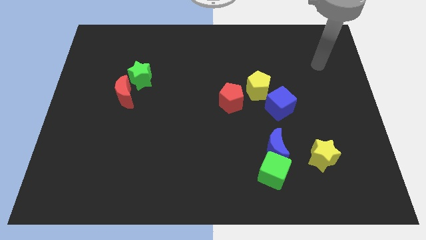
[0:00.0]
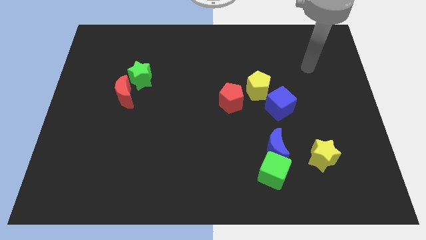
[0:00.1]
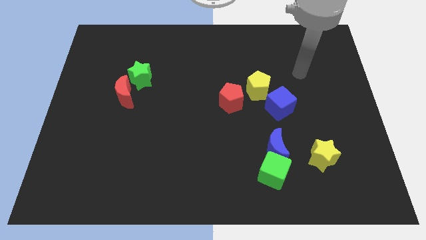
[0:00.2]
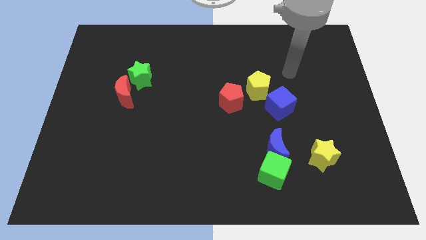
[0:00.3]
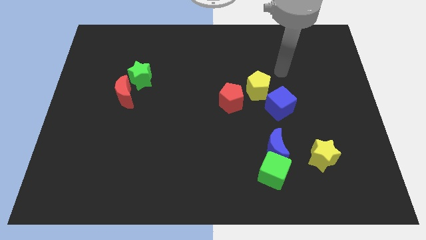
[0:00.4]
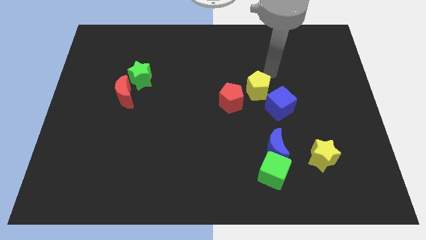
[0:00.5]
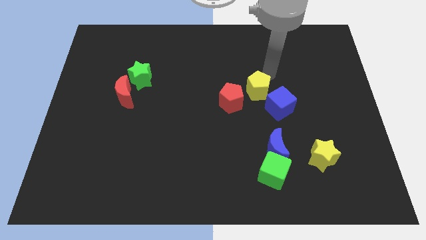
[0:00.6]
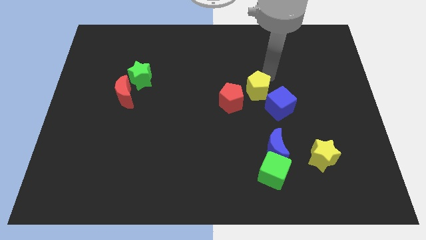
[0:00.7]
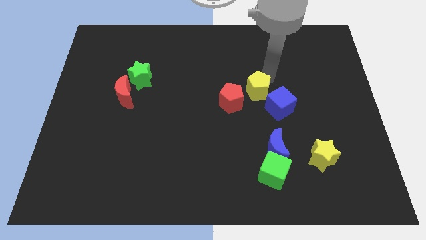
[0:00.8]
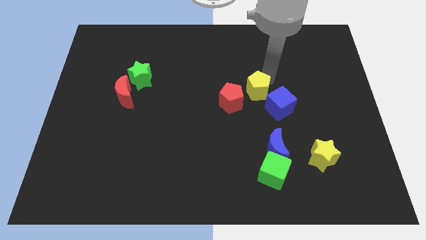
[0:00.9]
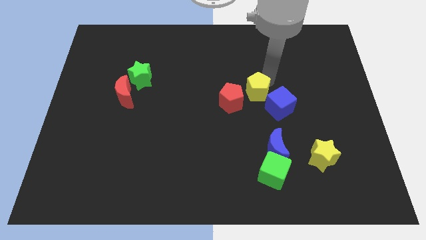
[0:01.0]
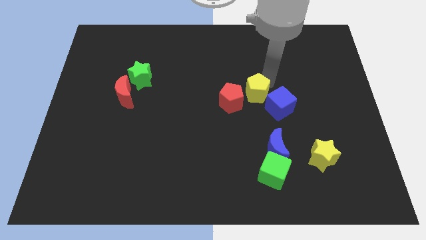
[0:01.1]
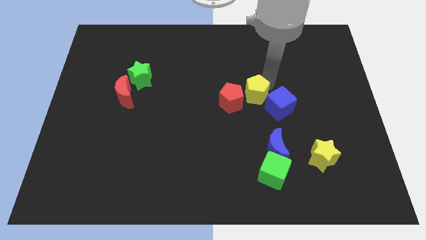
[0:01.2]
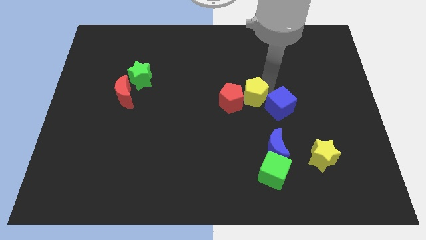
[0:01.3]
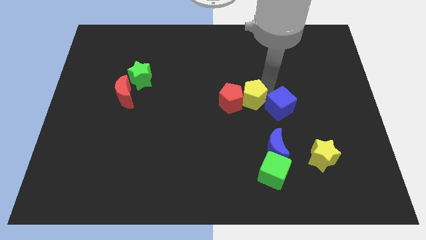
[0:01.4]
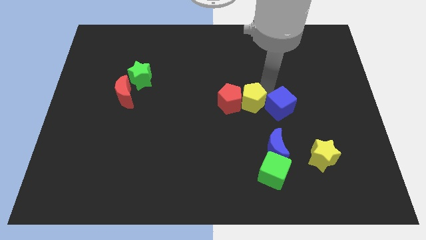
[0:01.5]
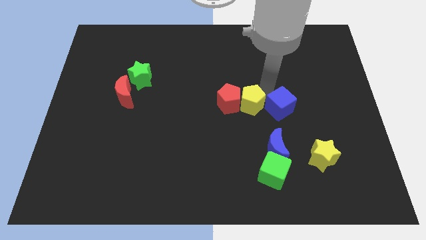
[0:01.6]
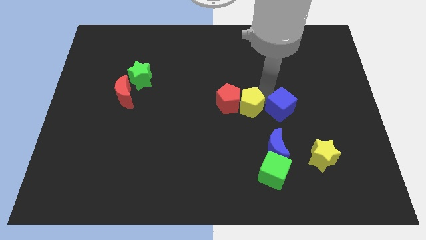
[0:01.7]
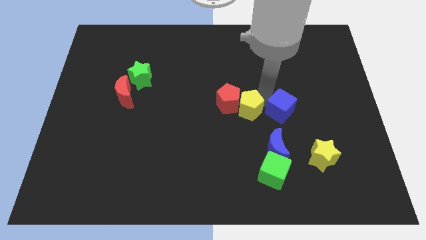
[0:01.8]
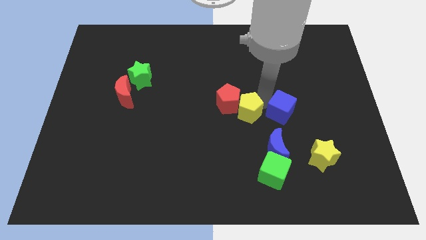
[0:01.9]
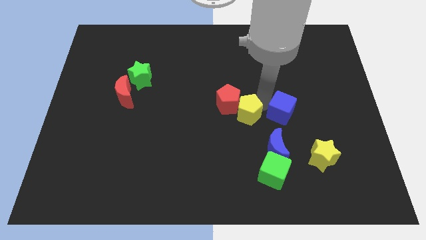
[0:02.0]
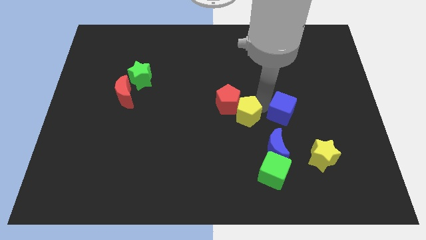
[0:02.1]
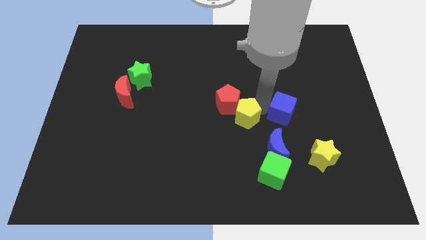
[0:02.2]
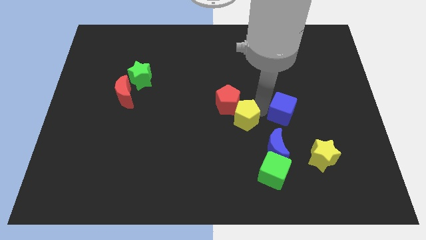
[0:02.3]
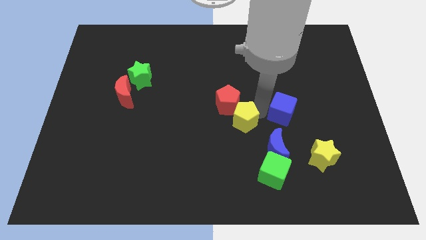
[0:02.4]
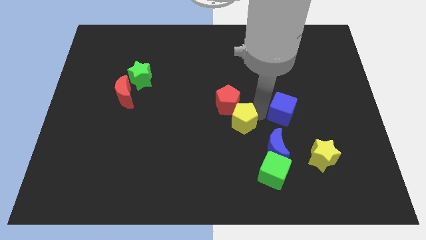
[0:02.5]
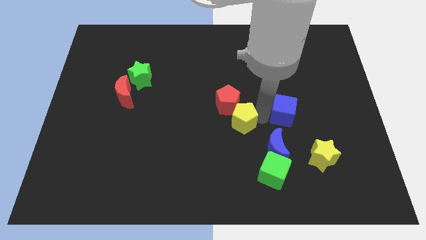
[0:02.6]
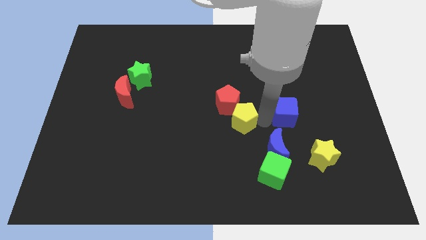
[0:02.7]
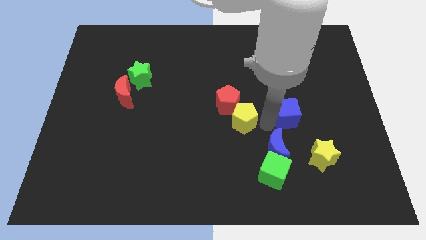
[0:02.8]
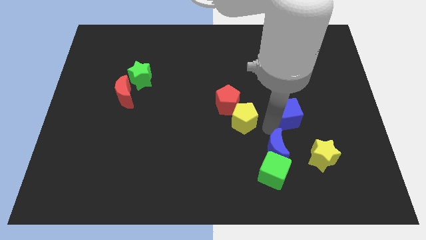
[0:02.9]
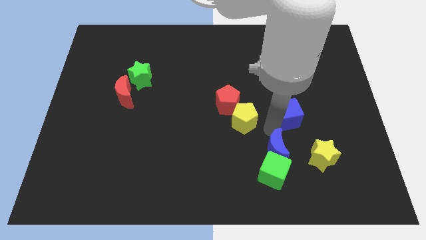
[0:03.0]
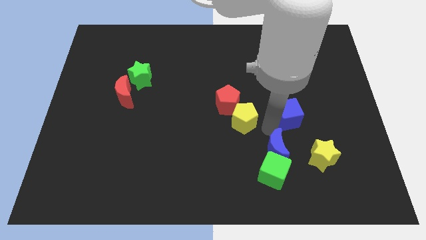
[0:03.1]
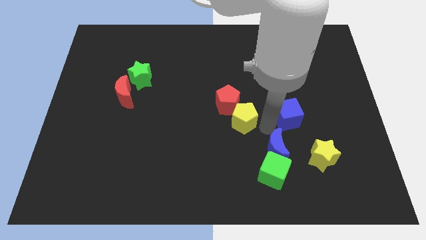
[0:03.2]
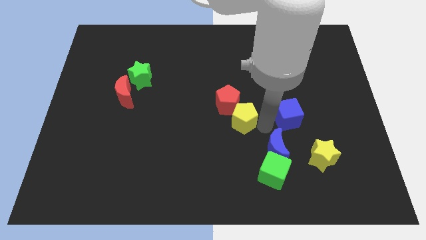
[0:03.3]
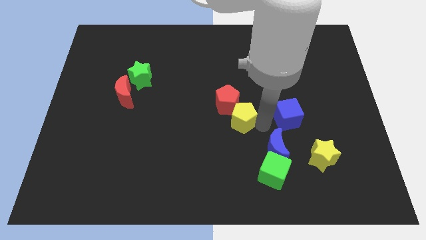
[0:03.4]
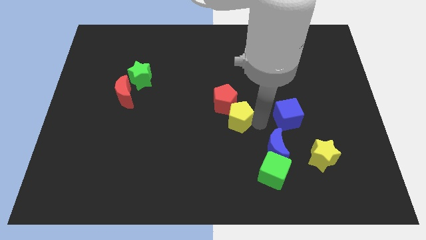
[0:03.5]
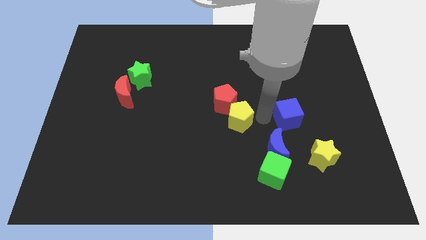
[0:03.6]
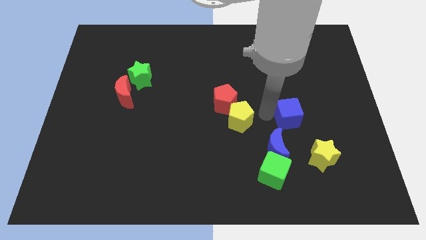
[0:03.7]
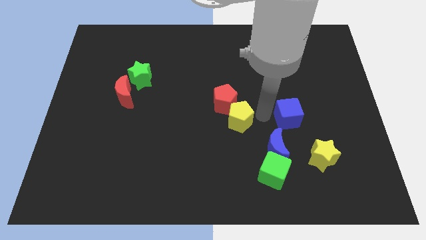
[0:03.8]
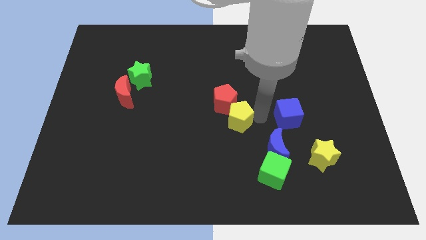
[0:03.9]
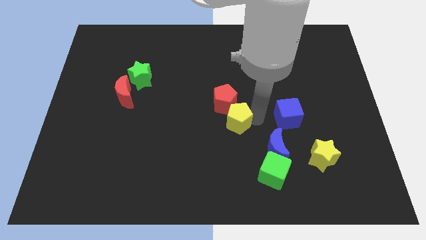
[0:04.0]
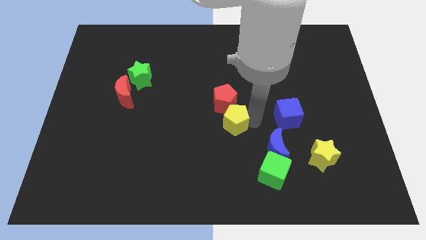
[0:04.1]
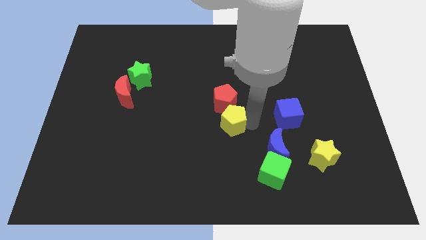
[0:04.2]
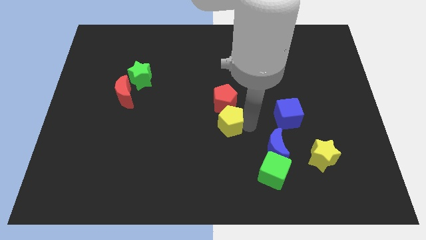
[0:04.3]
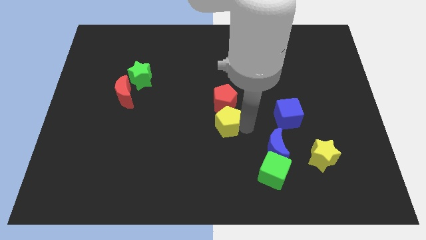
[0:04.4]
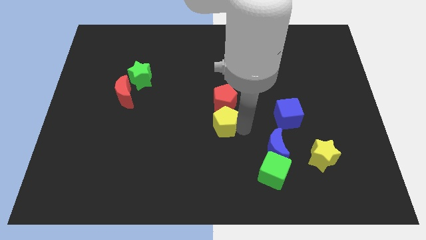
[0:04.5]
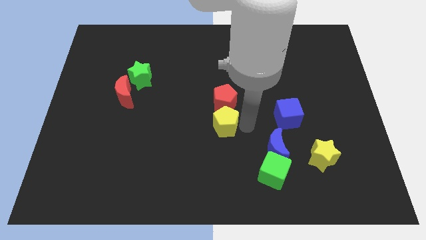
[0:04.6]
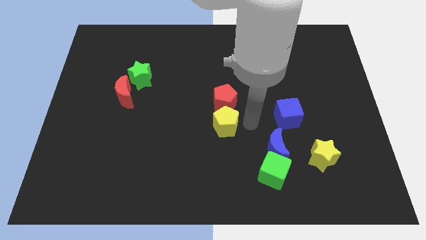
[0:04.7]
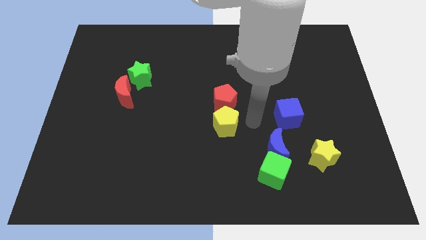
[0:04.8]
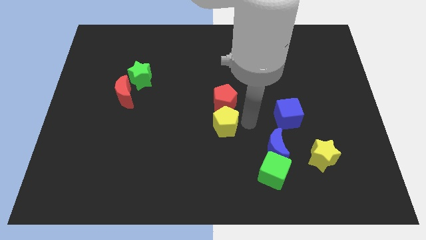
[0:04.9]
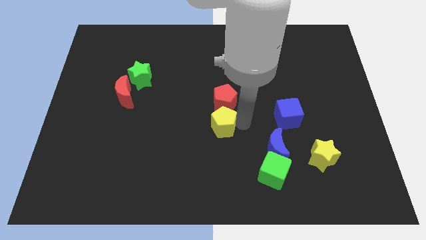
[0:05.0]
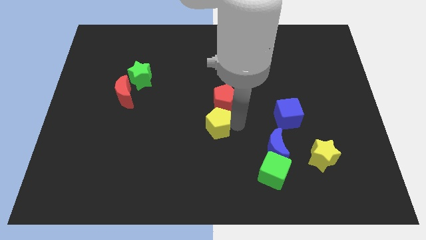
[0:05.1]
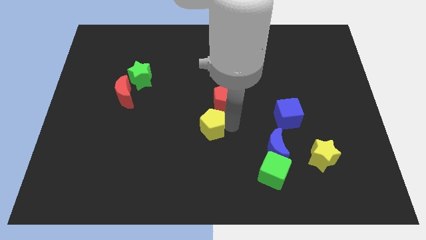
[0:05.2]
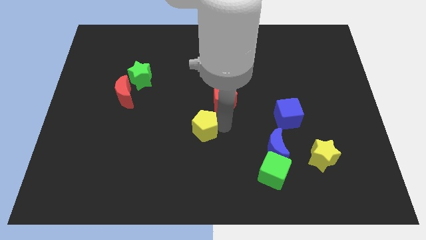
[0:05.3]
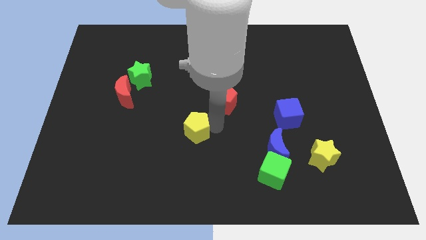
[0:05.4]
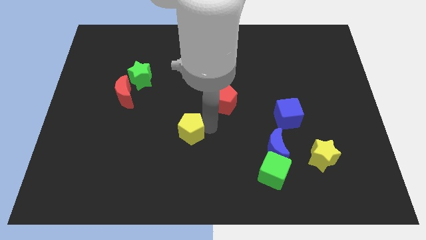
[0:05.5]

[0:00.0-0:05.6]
slide the yellow pentagon down and left

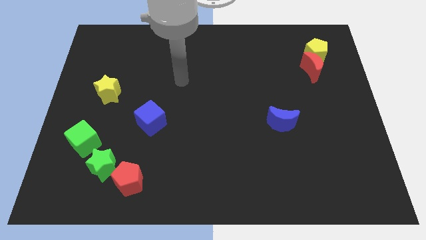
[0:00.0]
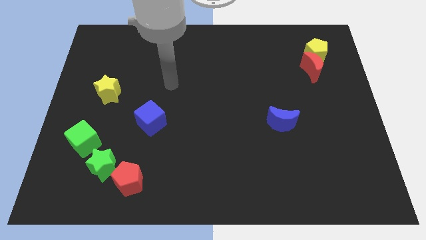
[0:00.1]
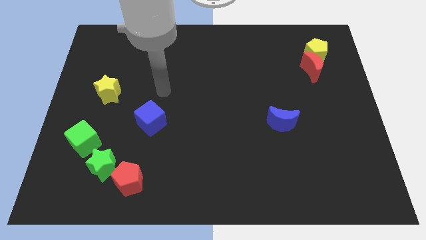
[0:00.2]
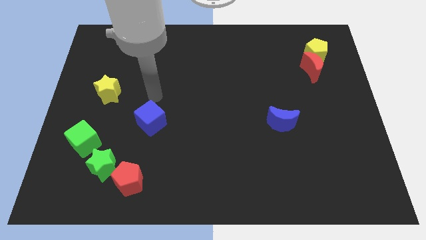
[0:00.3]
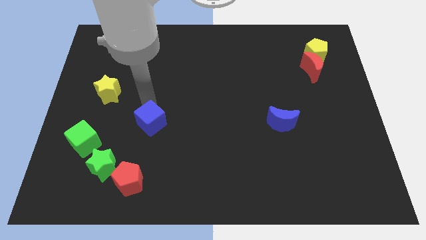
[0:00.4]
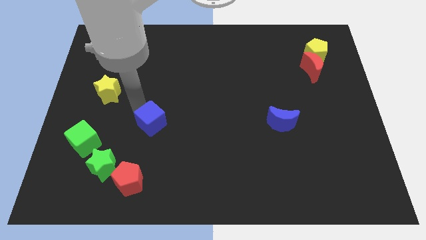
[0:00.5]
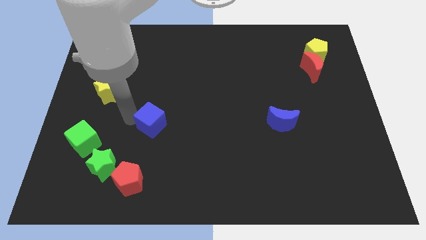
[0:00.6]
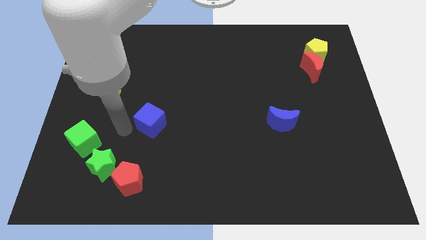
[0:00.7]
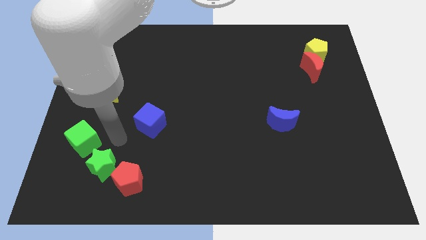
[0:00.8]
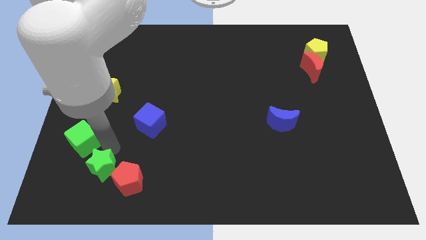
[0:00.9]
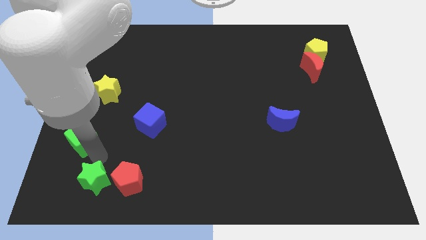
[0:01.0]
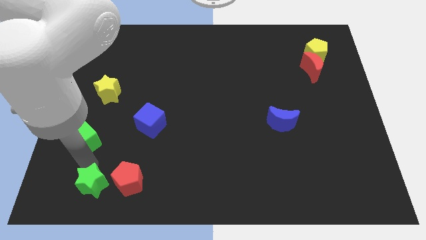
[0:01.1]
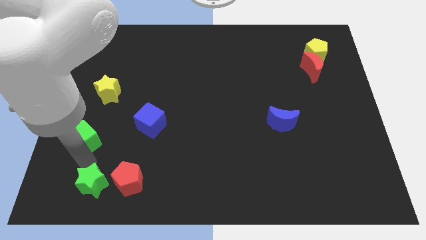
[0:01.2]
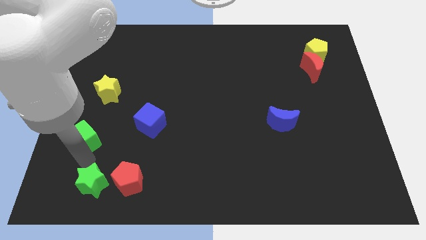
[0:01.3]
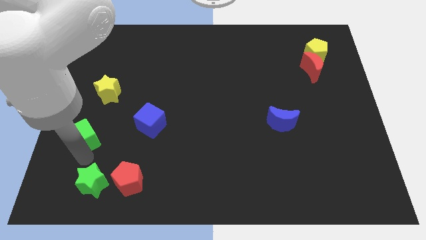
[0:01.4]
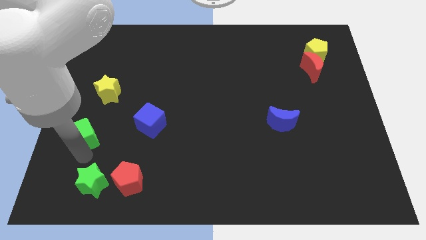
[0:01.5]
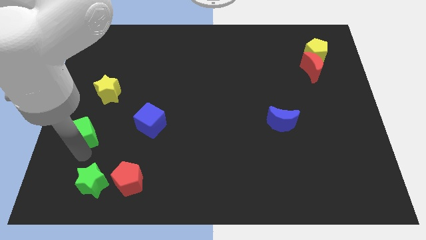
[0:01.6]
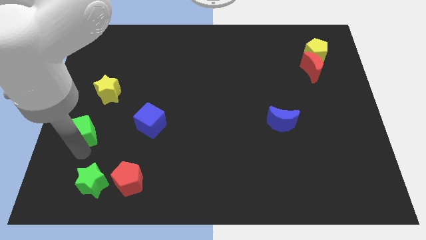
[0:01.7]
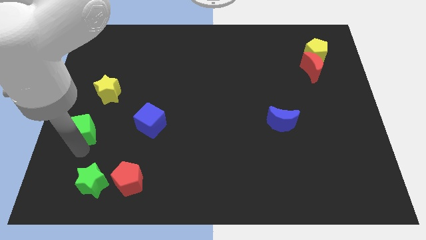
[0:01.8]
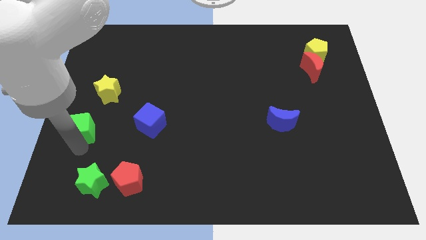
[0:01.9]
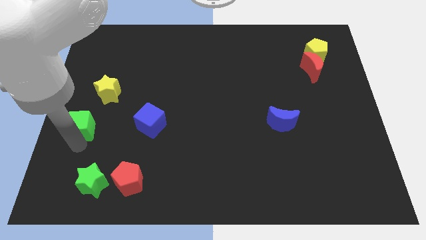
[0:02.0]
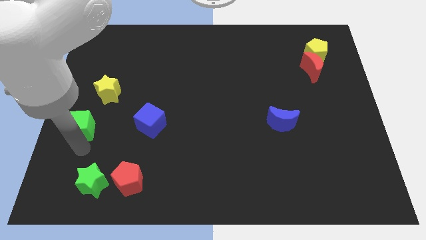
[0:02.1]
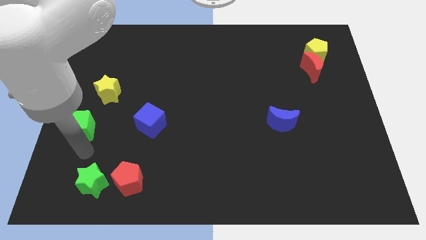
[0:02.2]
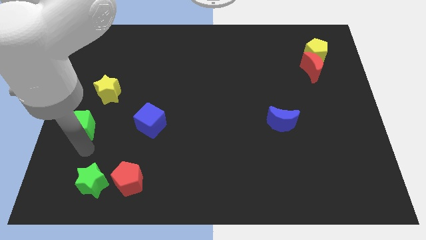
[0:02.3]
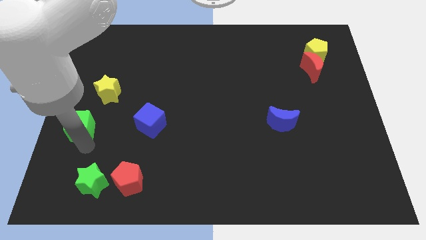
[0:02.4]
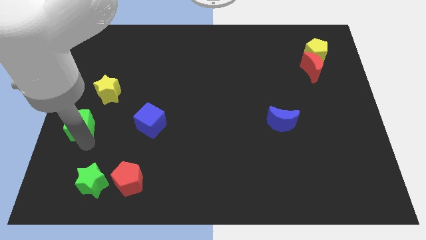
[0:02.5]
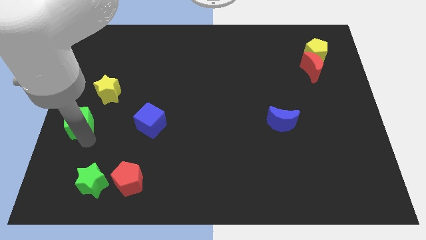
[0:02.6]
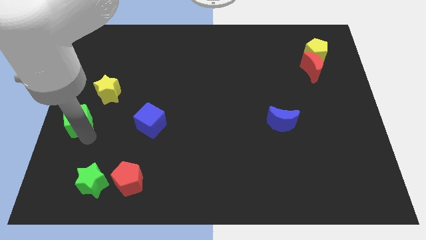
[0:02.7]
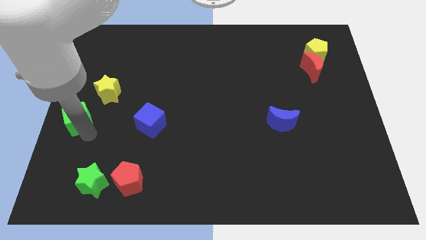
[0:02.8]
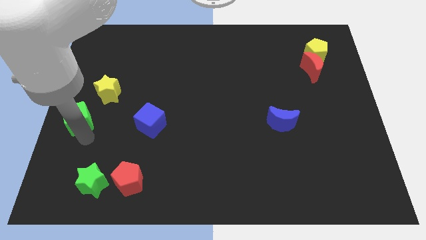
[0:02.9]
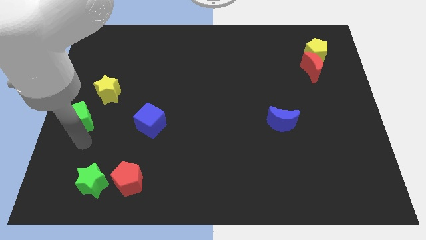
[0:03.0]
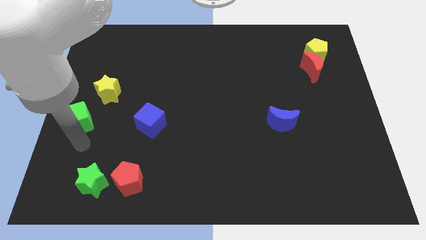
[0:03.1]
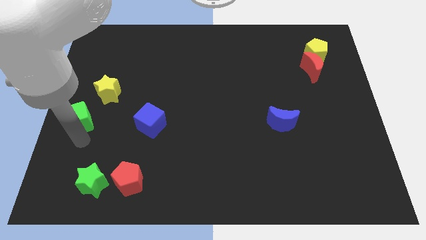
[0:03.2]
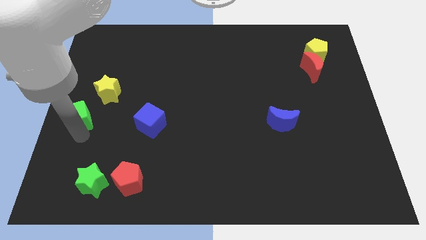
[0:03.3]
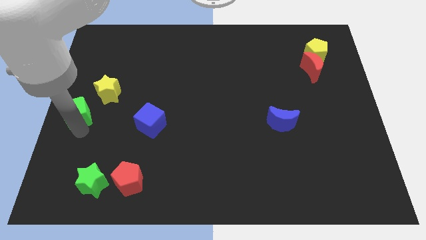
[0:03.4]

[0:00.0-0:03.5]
slide the green cube upwards a little bit
